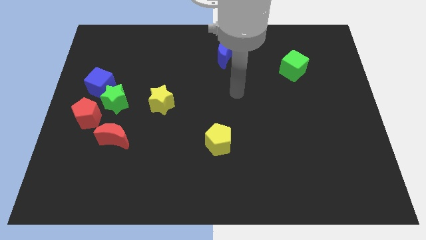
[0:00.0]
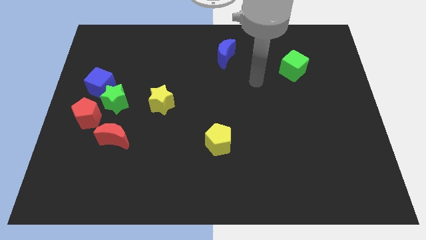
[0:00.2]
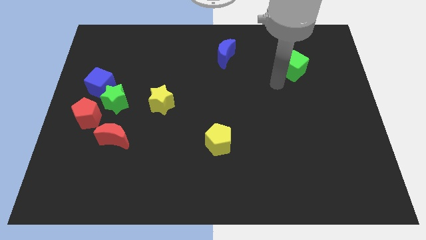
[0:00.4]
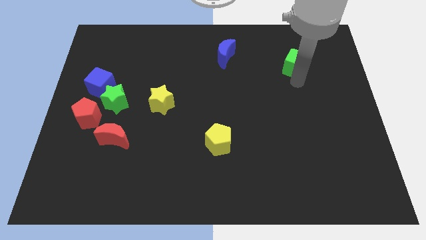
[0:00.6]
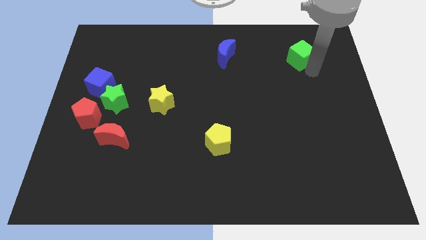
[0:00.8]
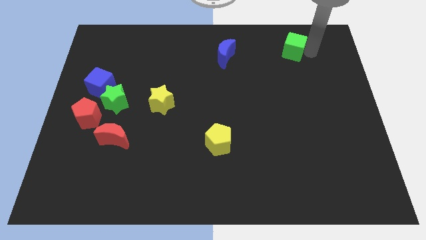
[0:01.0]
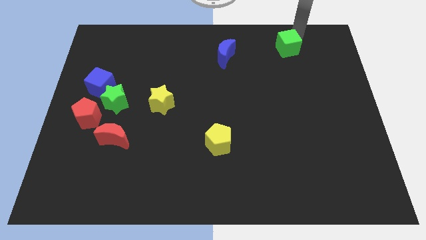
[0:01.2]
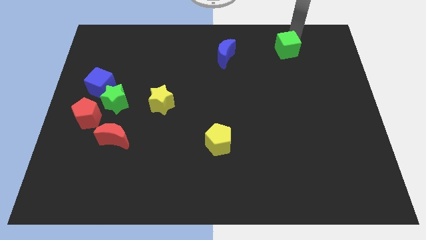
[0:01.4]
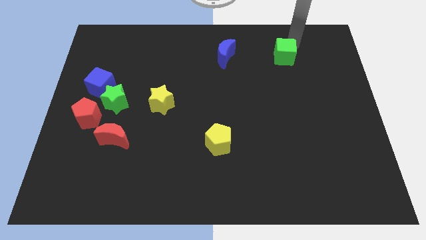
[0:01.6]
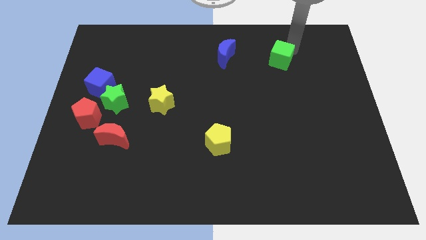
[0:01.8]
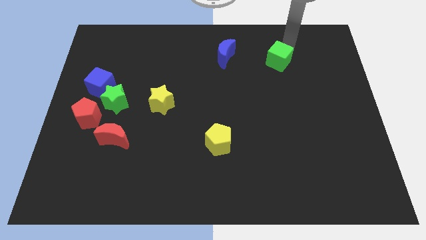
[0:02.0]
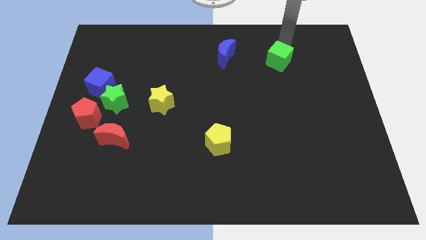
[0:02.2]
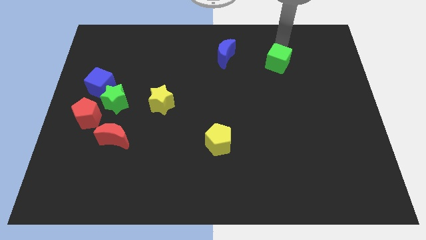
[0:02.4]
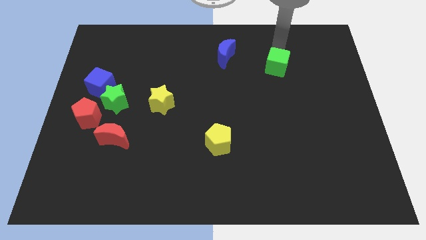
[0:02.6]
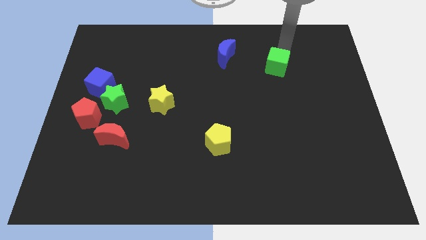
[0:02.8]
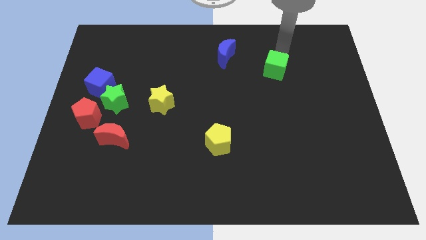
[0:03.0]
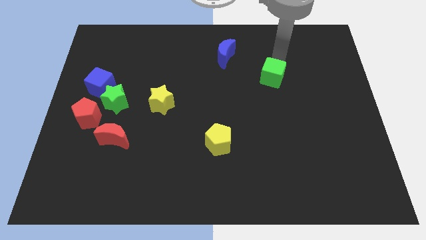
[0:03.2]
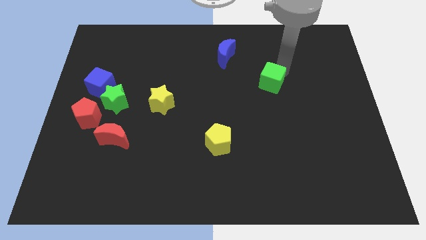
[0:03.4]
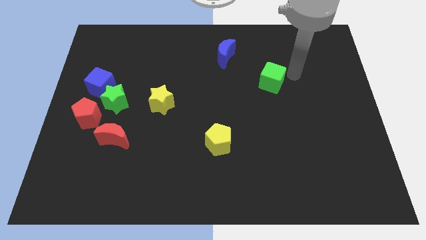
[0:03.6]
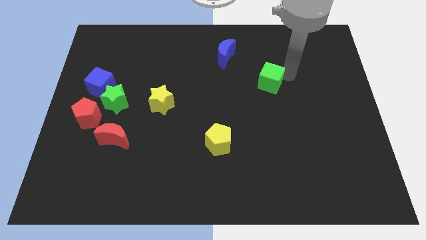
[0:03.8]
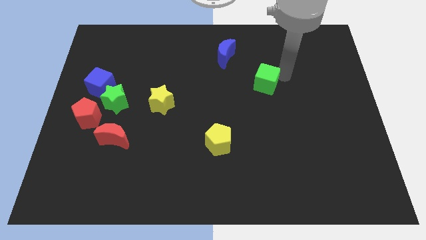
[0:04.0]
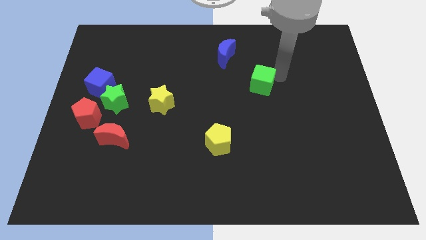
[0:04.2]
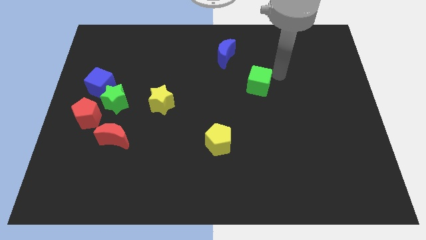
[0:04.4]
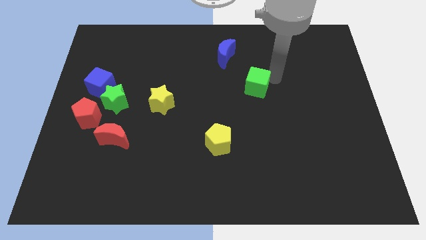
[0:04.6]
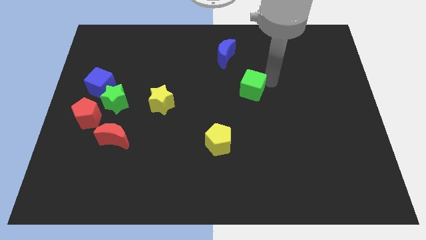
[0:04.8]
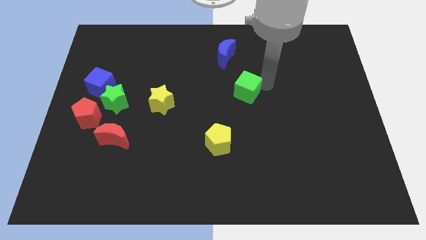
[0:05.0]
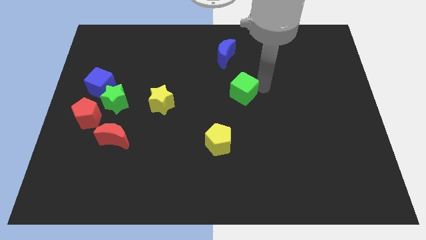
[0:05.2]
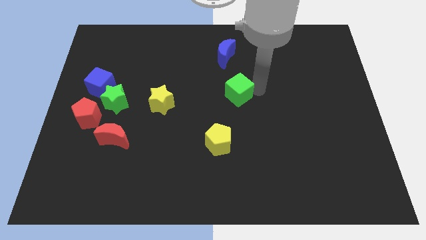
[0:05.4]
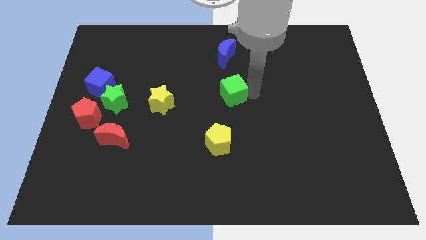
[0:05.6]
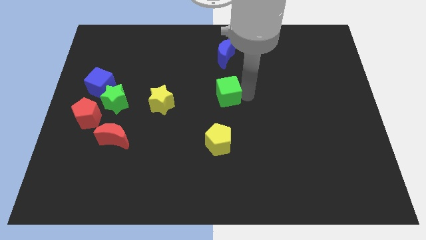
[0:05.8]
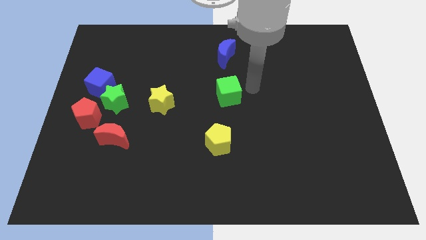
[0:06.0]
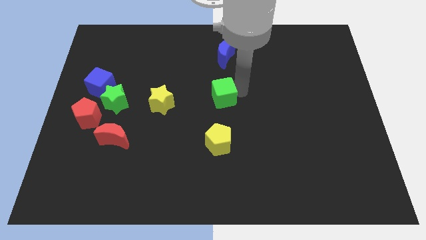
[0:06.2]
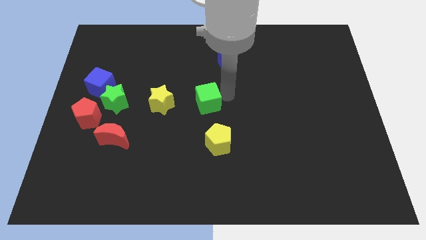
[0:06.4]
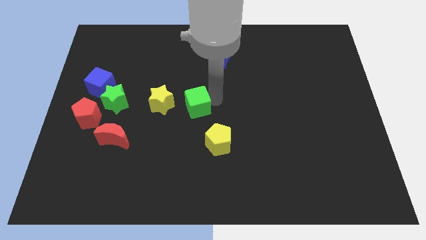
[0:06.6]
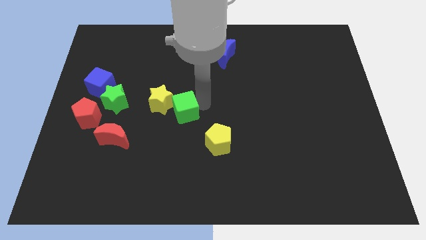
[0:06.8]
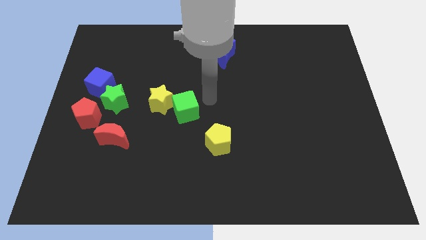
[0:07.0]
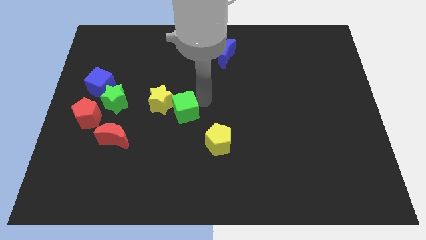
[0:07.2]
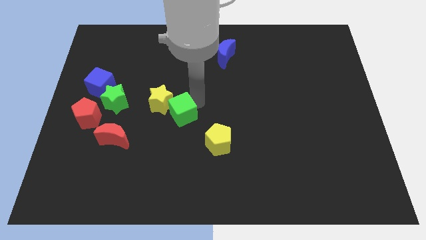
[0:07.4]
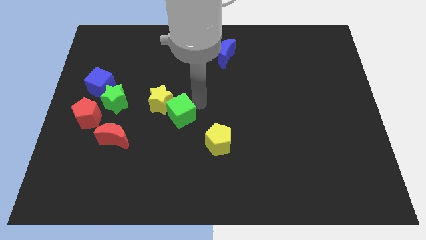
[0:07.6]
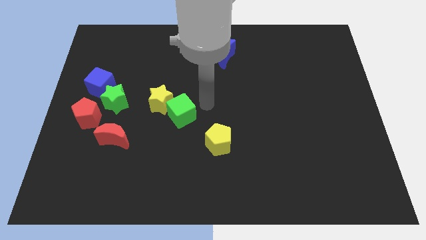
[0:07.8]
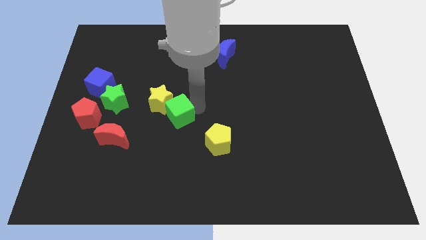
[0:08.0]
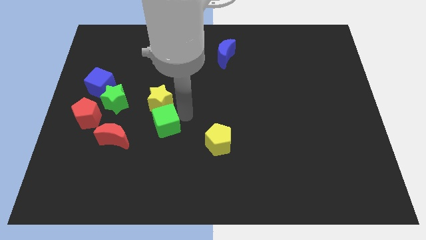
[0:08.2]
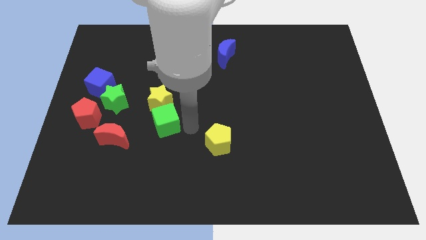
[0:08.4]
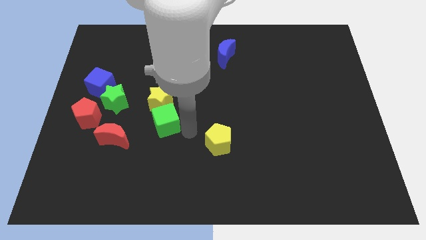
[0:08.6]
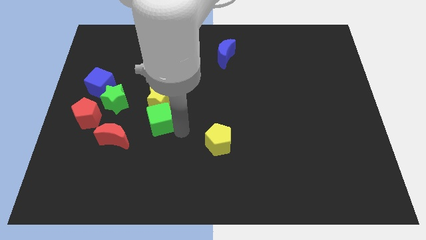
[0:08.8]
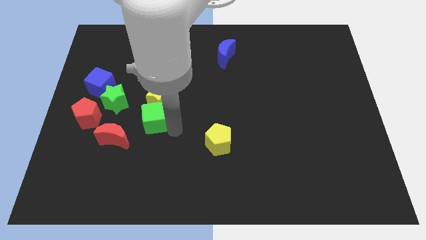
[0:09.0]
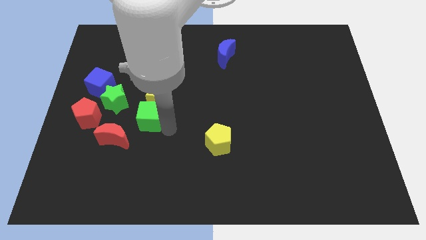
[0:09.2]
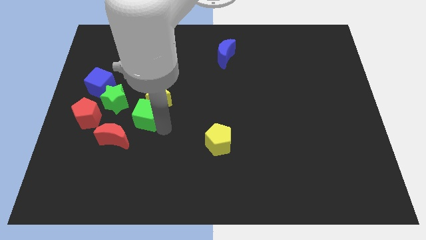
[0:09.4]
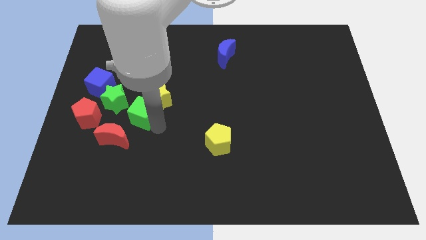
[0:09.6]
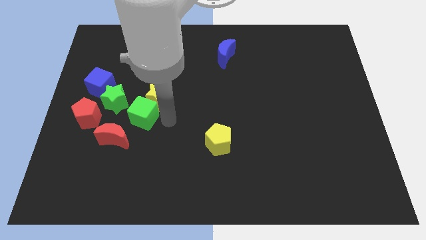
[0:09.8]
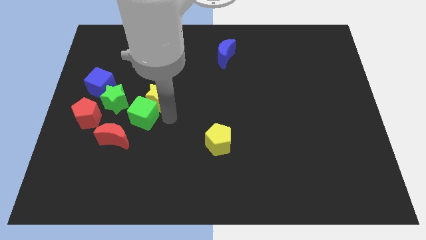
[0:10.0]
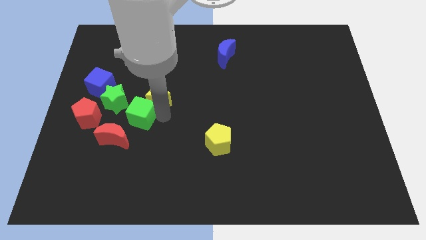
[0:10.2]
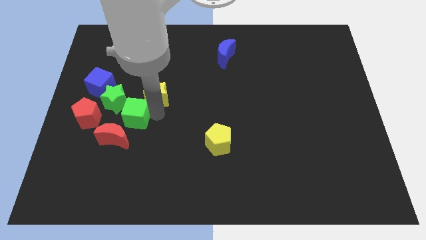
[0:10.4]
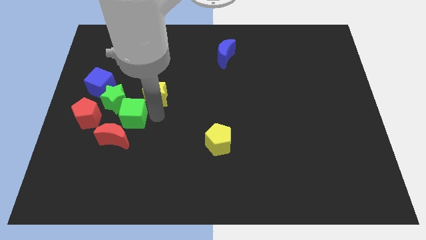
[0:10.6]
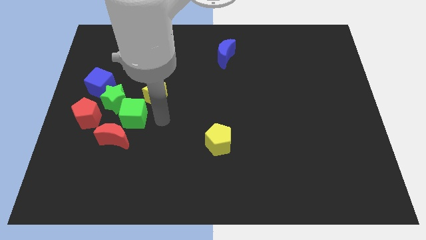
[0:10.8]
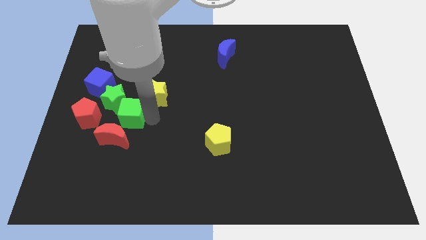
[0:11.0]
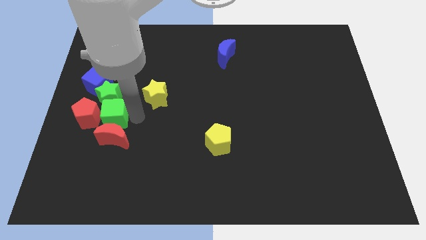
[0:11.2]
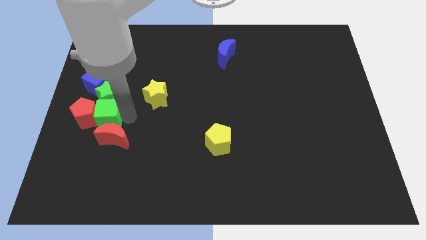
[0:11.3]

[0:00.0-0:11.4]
move the green cube towards the red pentagon

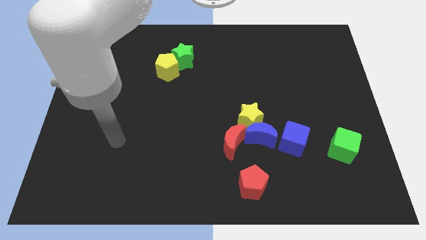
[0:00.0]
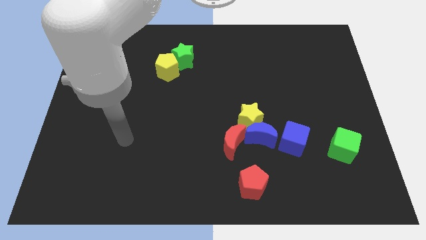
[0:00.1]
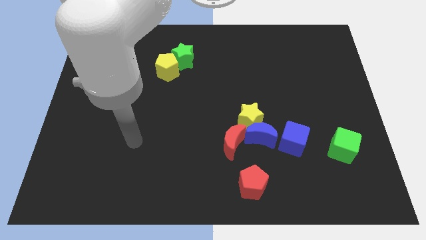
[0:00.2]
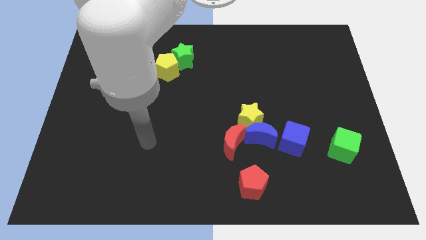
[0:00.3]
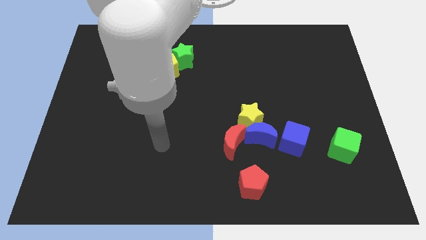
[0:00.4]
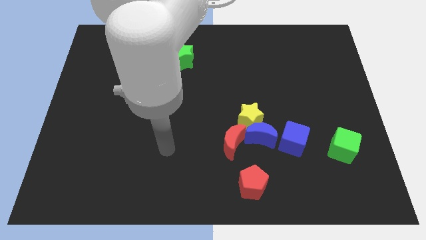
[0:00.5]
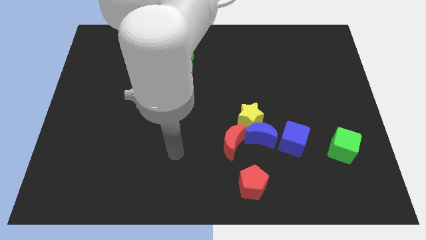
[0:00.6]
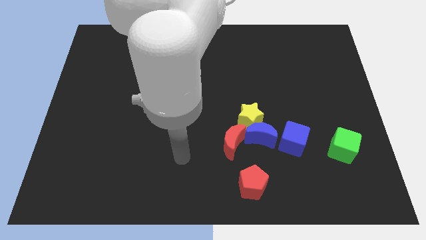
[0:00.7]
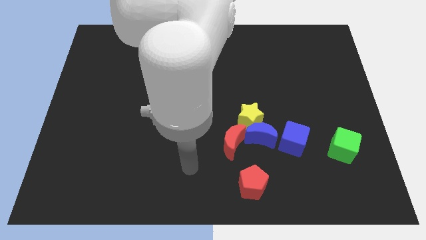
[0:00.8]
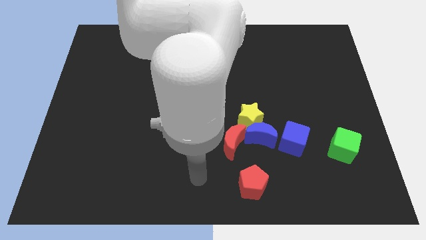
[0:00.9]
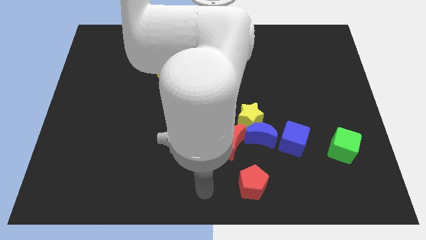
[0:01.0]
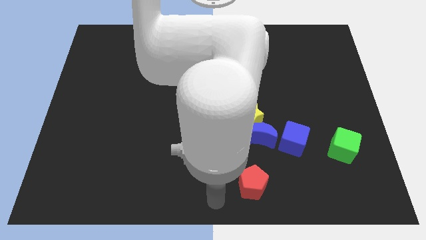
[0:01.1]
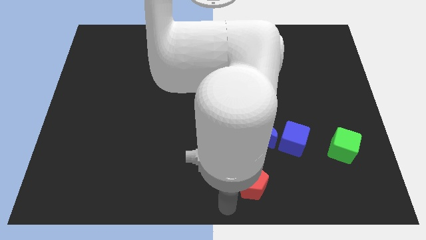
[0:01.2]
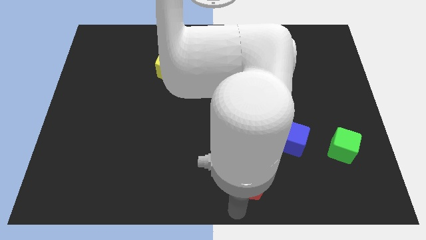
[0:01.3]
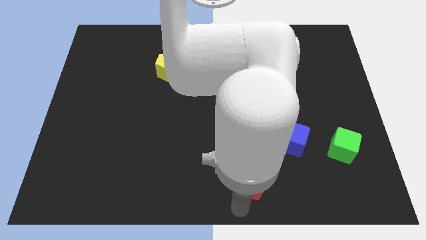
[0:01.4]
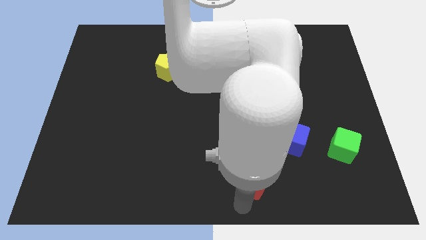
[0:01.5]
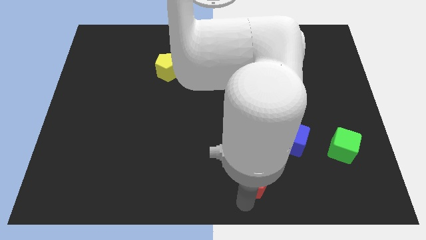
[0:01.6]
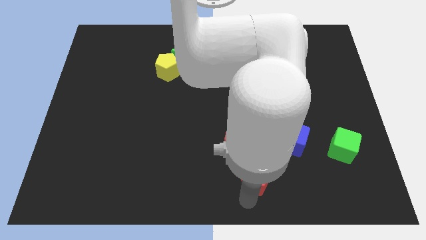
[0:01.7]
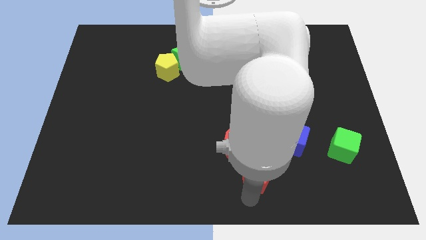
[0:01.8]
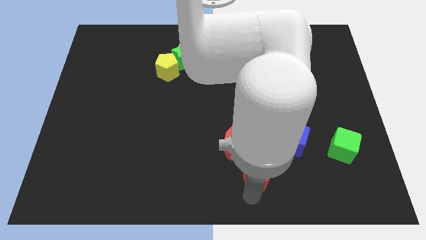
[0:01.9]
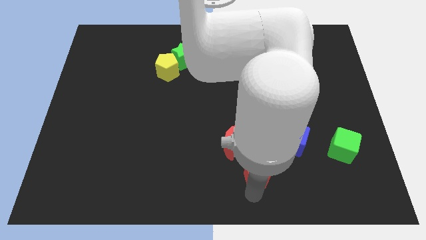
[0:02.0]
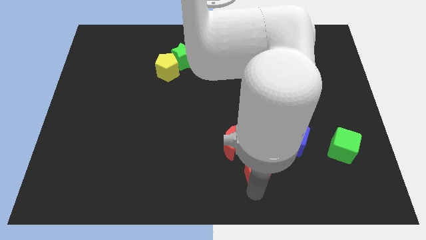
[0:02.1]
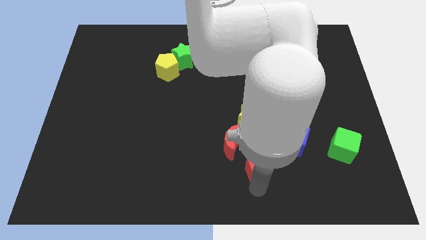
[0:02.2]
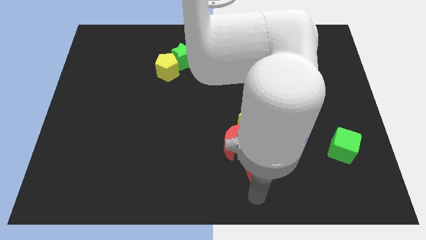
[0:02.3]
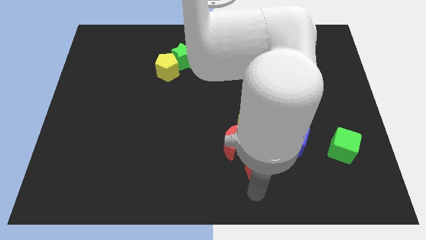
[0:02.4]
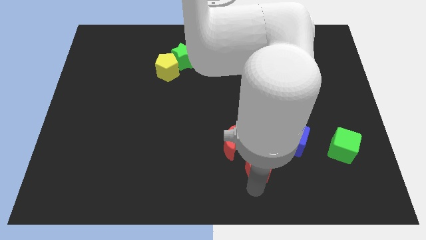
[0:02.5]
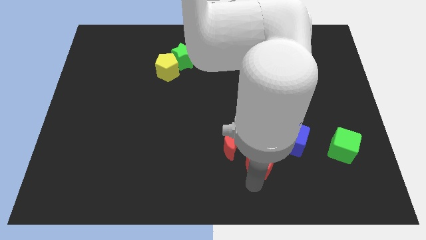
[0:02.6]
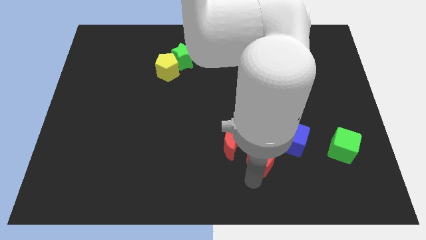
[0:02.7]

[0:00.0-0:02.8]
slide the red pentagon next to the blue moon
